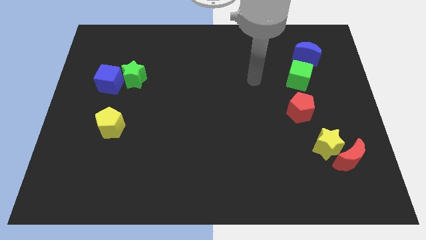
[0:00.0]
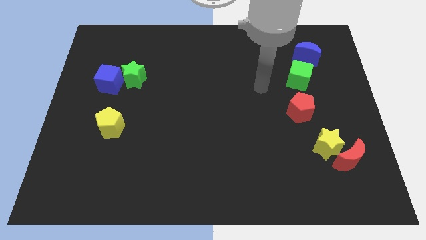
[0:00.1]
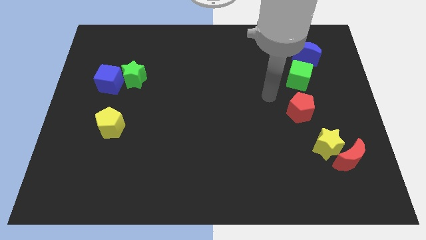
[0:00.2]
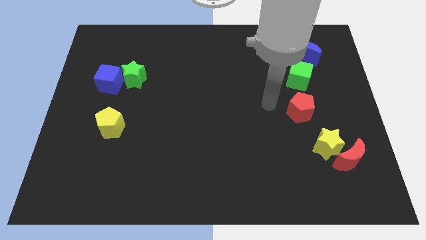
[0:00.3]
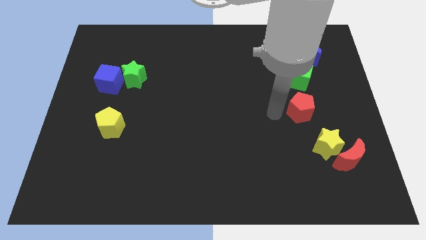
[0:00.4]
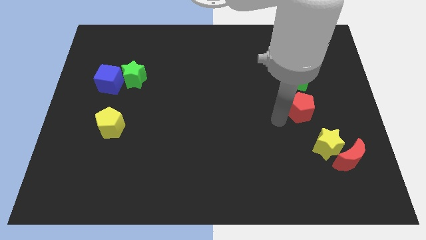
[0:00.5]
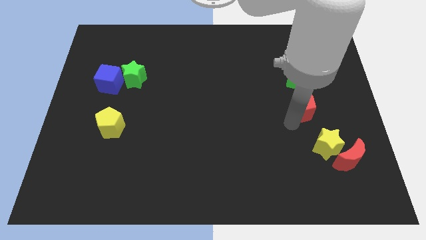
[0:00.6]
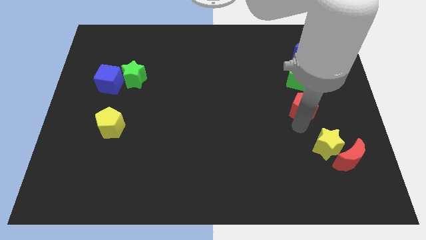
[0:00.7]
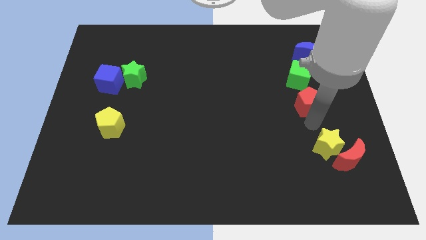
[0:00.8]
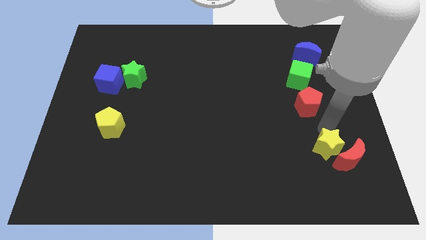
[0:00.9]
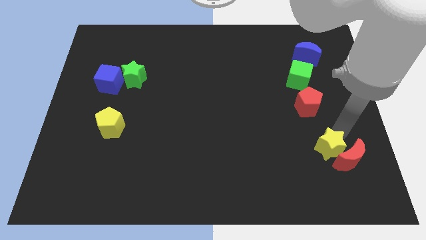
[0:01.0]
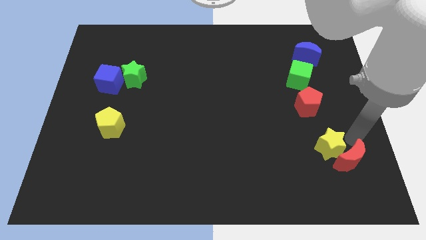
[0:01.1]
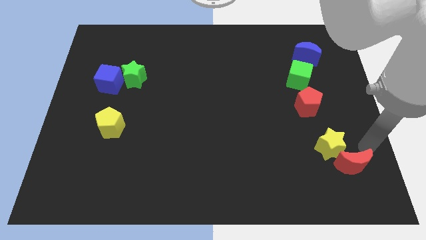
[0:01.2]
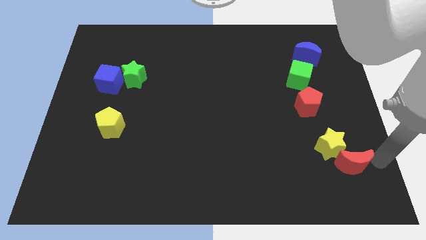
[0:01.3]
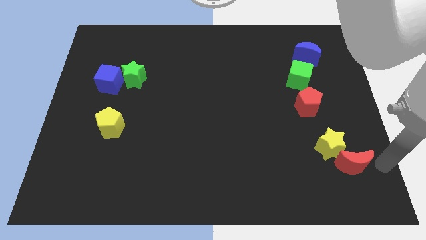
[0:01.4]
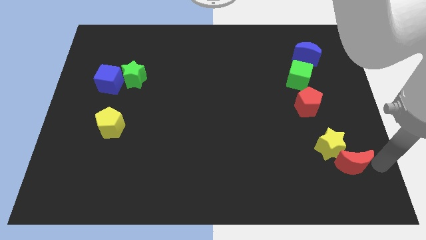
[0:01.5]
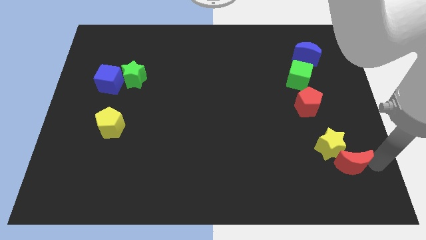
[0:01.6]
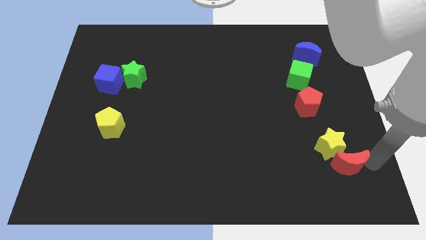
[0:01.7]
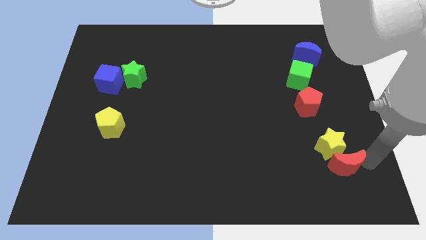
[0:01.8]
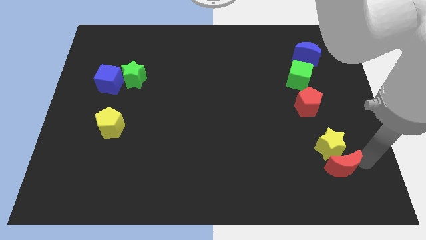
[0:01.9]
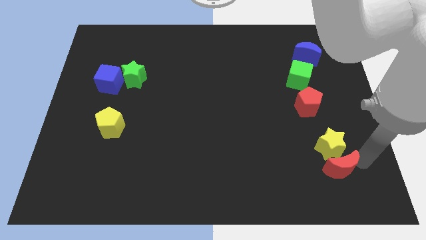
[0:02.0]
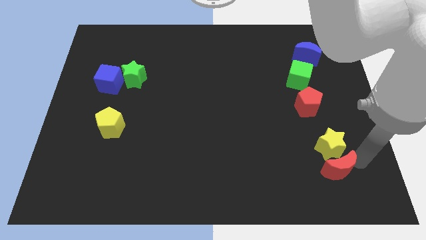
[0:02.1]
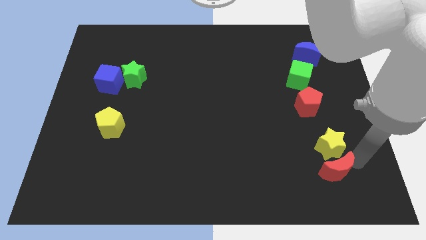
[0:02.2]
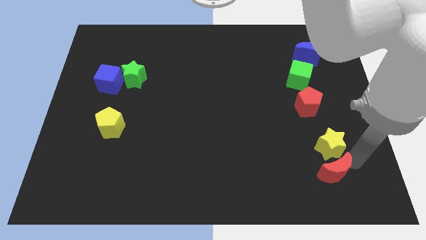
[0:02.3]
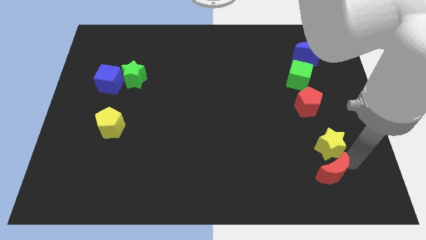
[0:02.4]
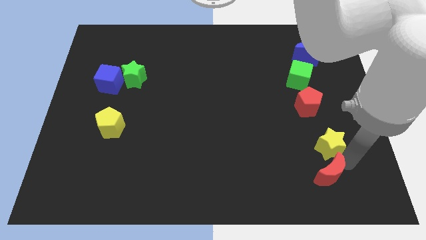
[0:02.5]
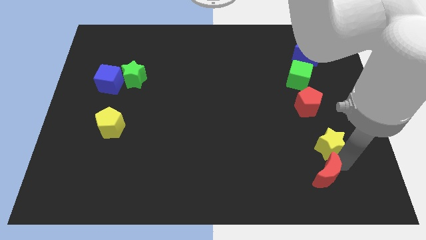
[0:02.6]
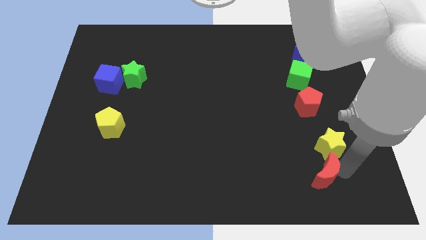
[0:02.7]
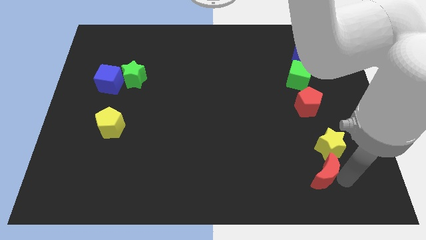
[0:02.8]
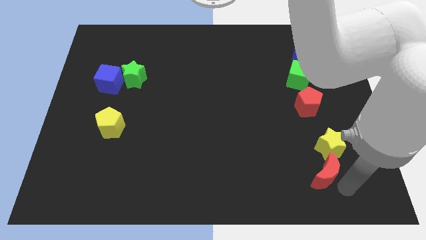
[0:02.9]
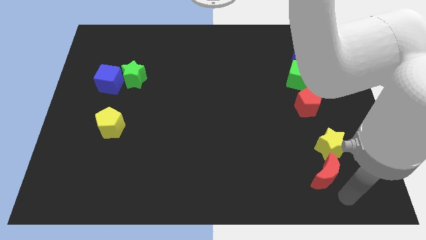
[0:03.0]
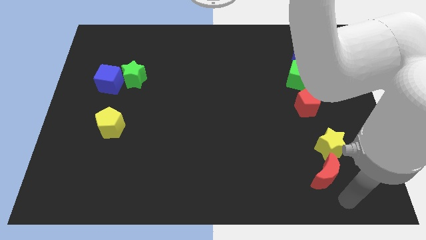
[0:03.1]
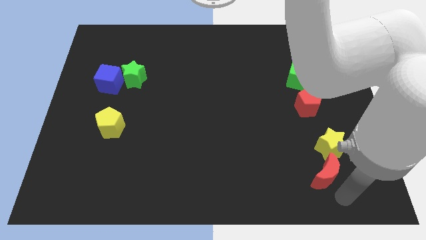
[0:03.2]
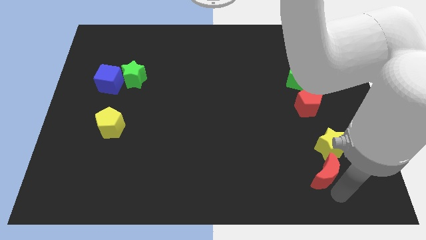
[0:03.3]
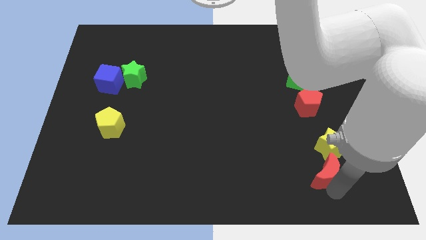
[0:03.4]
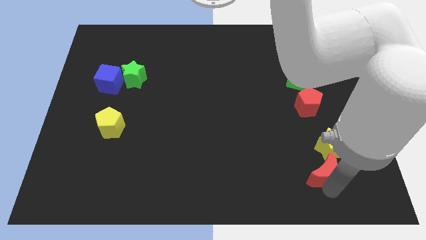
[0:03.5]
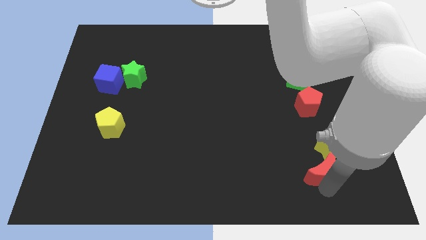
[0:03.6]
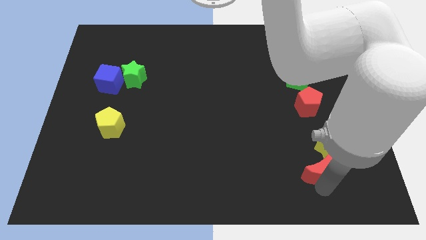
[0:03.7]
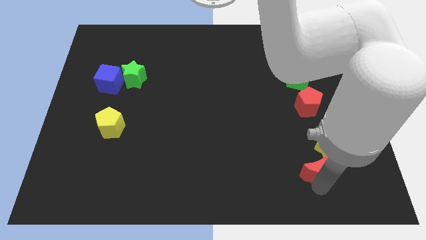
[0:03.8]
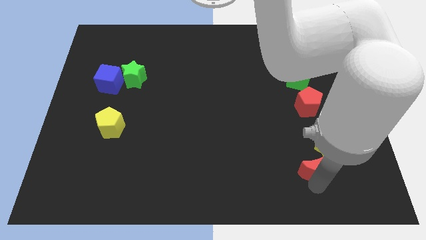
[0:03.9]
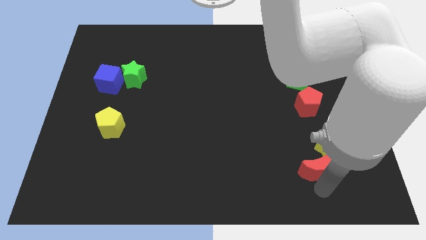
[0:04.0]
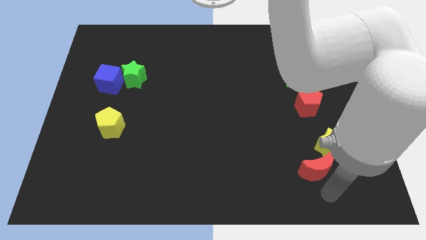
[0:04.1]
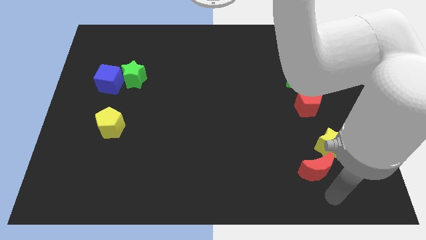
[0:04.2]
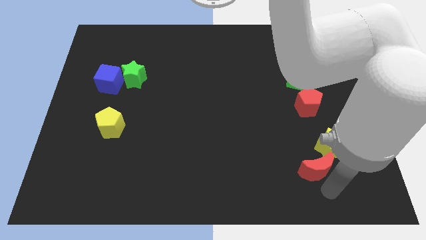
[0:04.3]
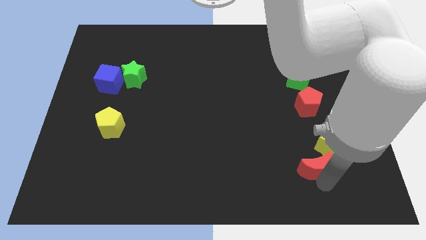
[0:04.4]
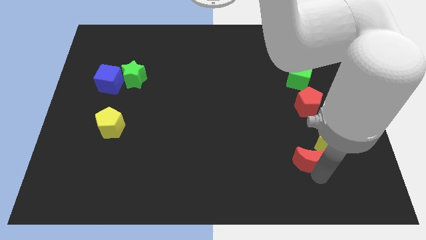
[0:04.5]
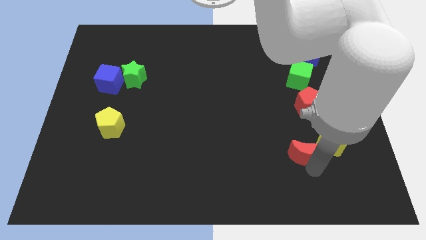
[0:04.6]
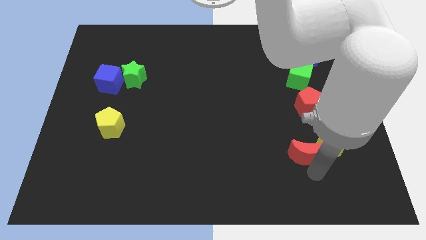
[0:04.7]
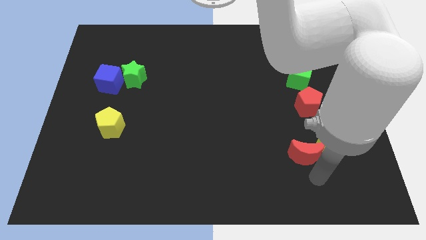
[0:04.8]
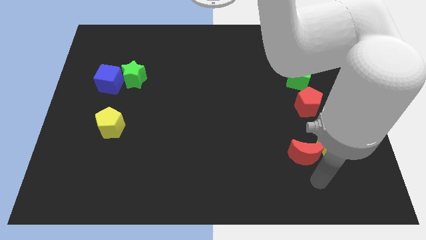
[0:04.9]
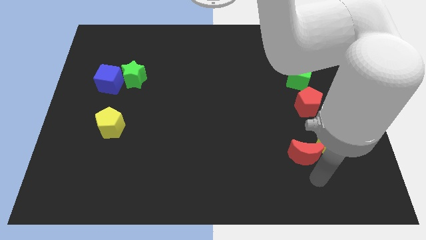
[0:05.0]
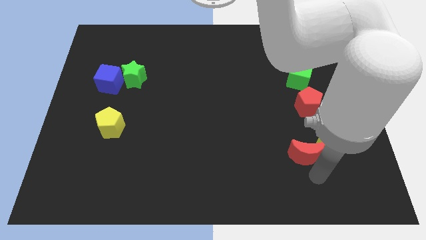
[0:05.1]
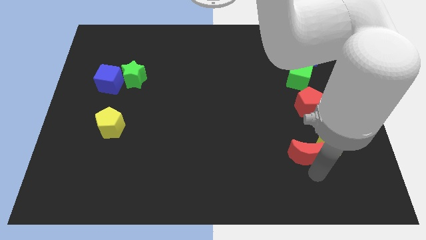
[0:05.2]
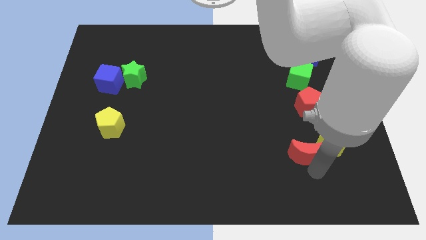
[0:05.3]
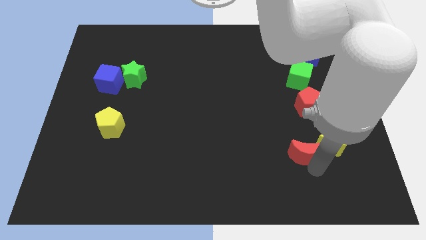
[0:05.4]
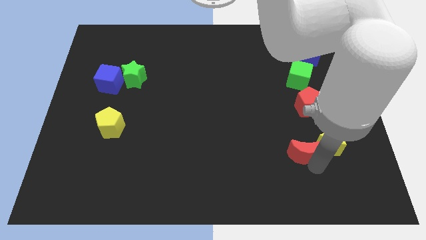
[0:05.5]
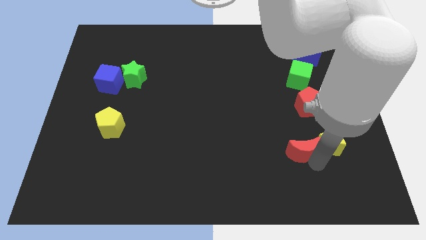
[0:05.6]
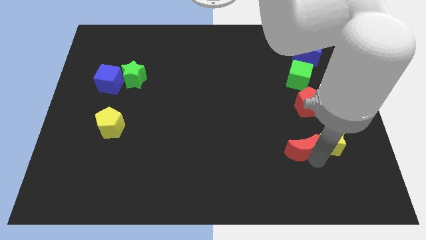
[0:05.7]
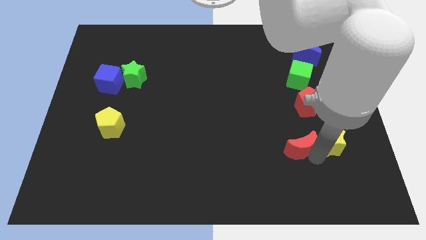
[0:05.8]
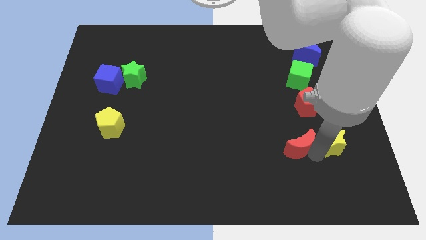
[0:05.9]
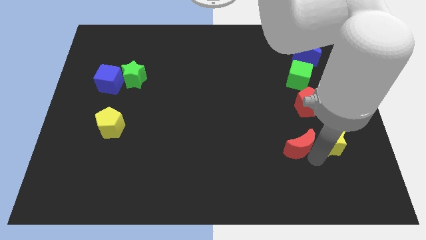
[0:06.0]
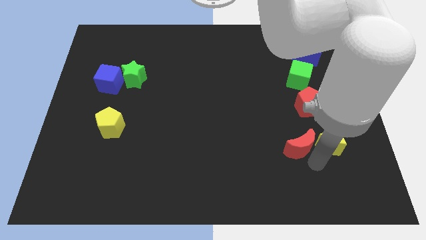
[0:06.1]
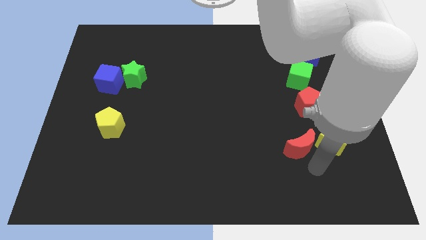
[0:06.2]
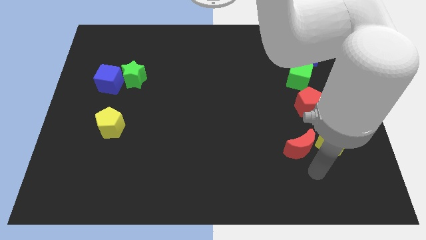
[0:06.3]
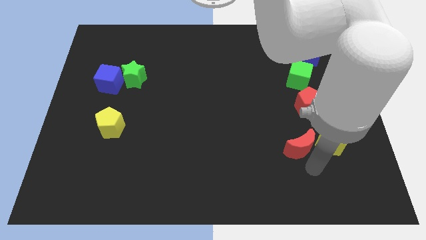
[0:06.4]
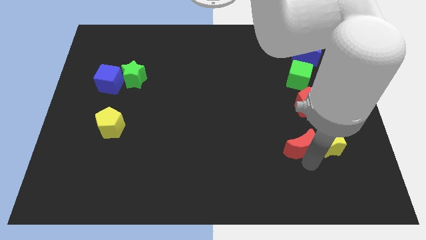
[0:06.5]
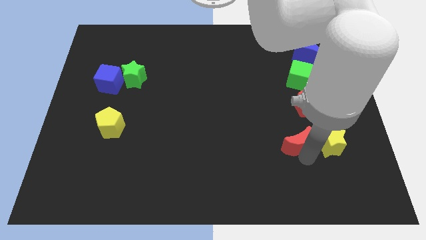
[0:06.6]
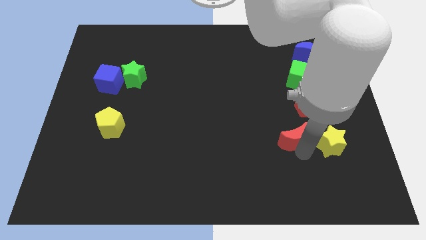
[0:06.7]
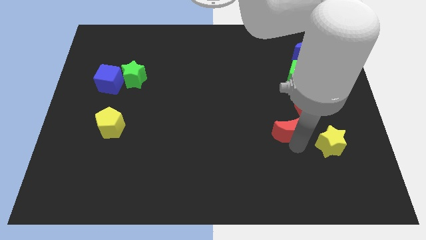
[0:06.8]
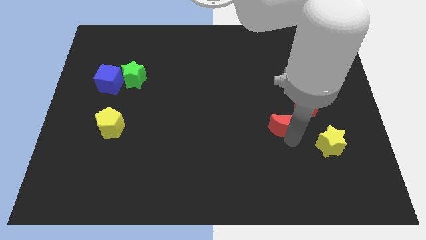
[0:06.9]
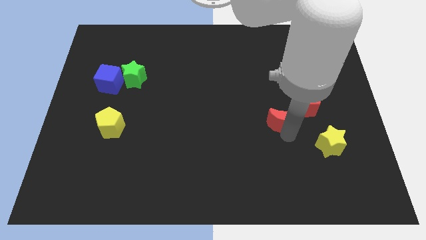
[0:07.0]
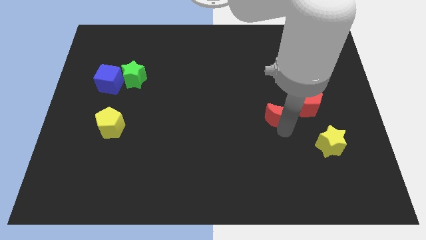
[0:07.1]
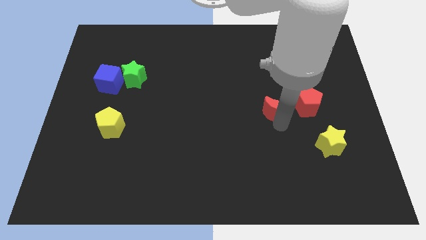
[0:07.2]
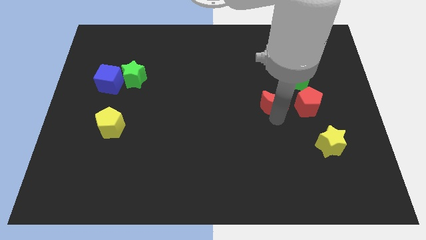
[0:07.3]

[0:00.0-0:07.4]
move the red moon diagonally down and to the left of the green cube
